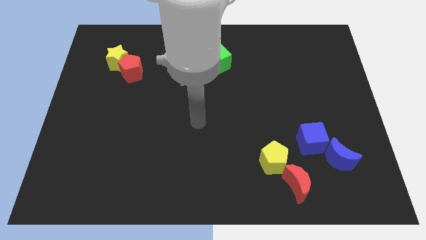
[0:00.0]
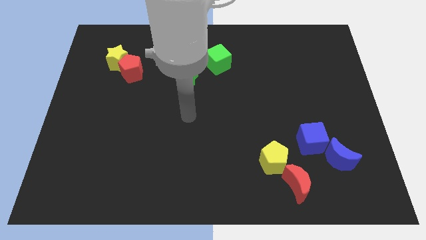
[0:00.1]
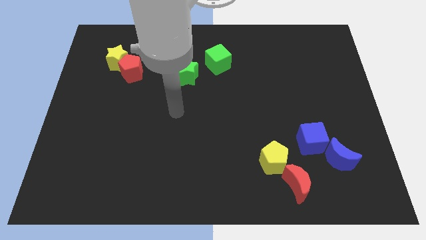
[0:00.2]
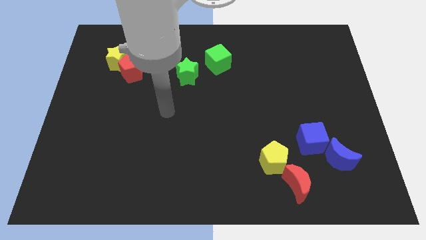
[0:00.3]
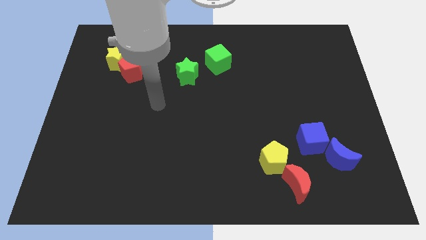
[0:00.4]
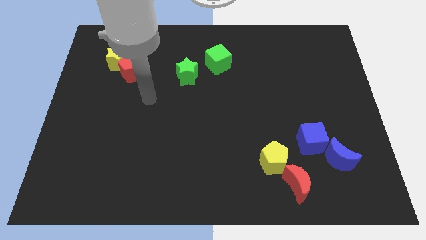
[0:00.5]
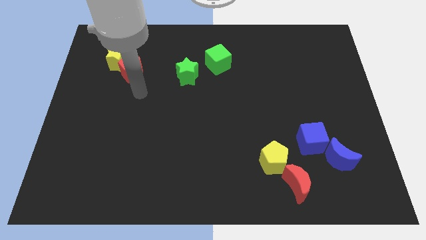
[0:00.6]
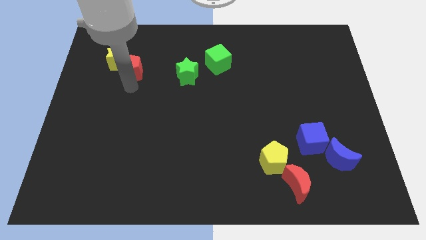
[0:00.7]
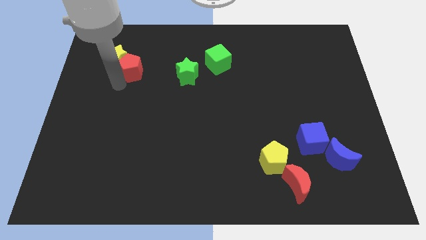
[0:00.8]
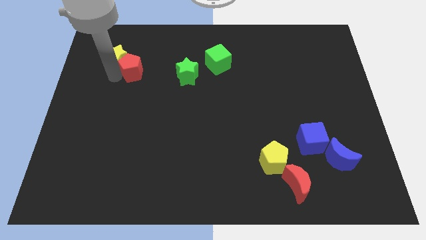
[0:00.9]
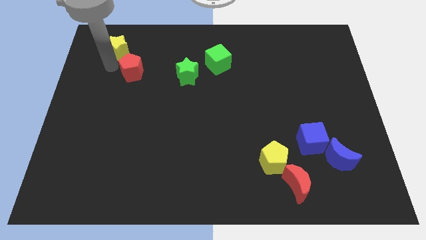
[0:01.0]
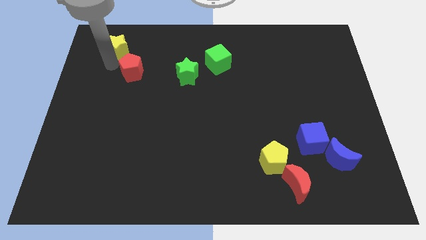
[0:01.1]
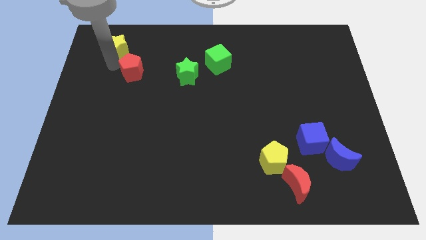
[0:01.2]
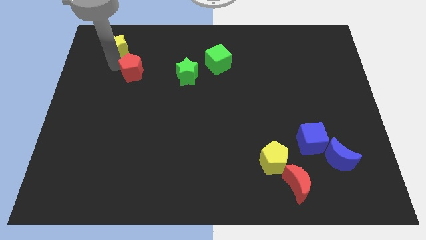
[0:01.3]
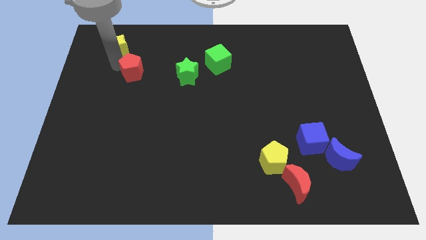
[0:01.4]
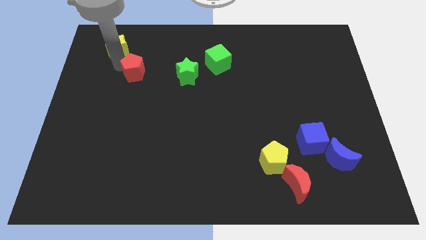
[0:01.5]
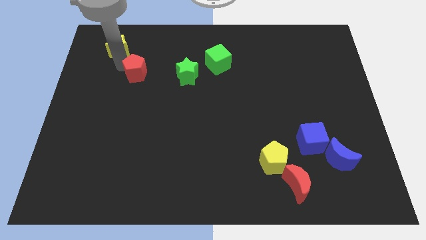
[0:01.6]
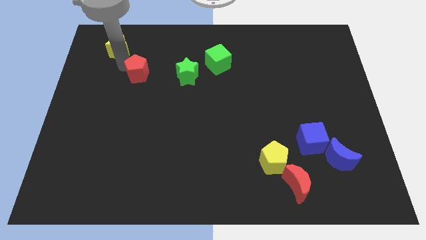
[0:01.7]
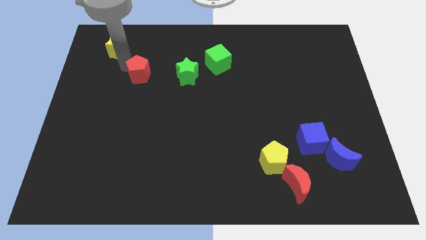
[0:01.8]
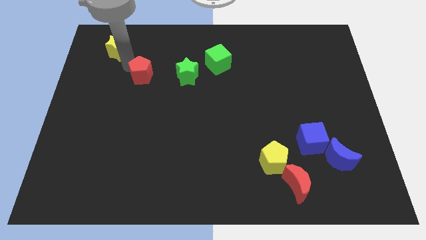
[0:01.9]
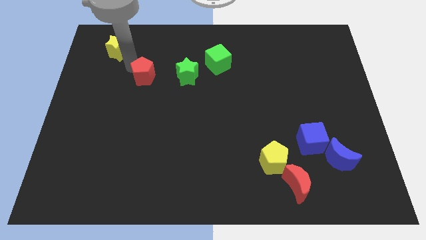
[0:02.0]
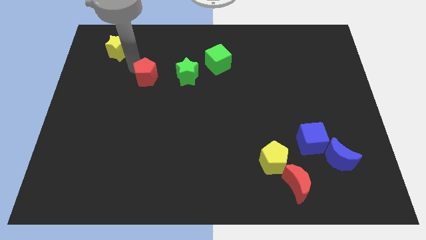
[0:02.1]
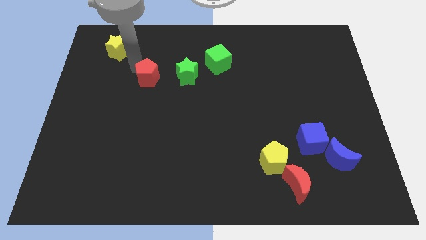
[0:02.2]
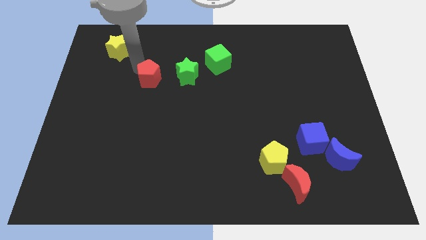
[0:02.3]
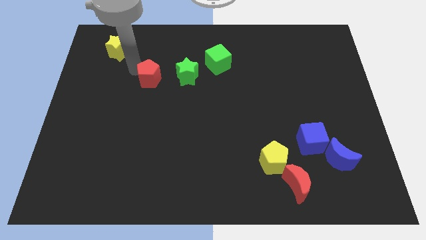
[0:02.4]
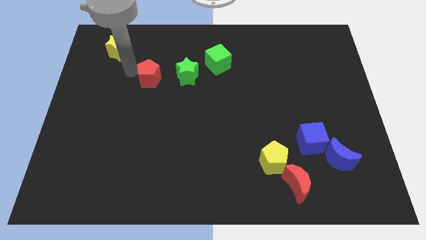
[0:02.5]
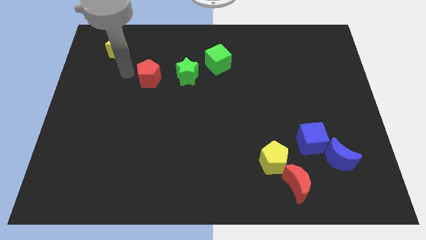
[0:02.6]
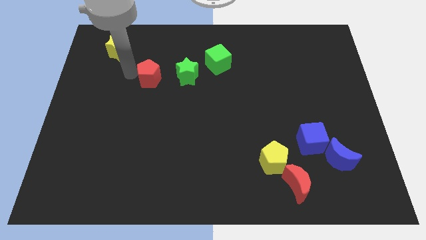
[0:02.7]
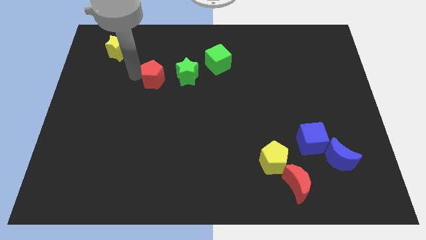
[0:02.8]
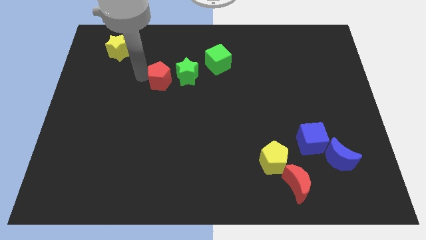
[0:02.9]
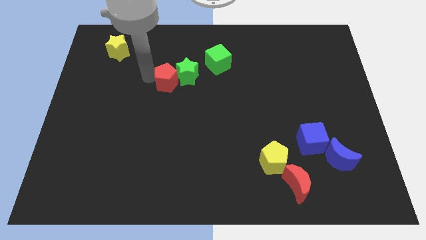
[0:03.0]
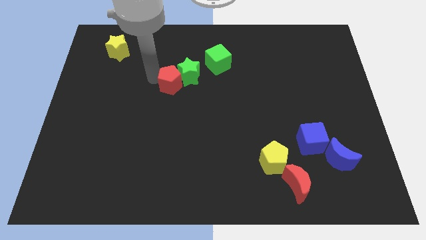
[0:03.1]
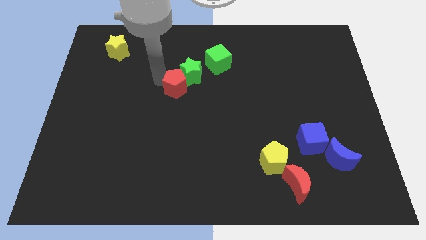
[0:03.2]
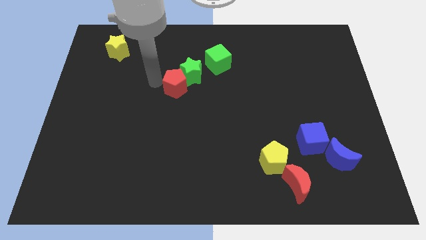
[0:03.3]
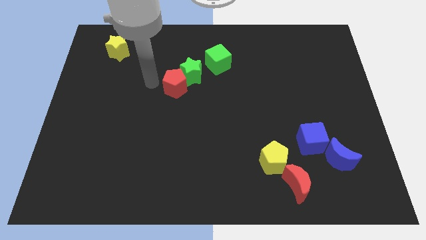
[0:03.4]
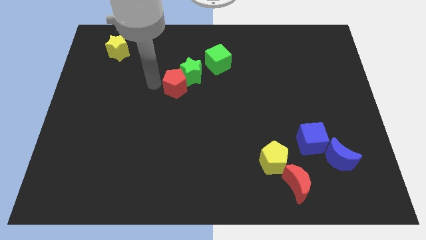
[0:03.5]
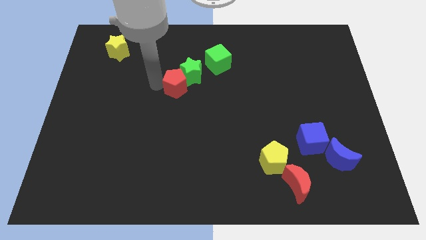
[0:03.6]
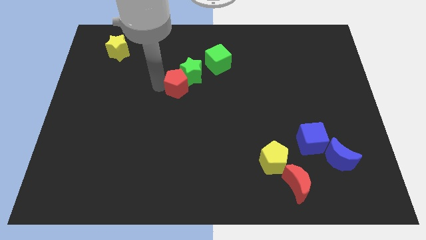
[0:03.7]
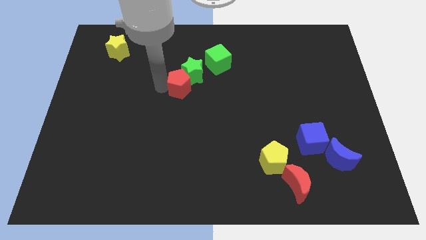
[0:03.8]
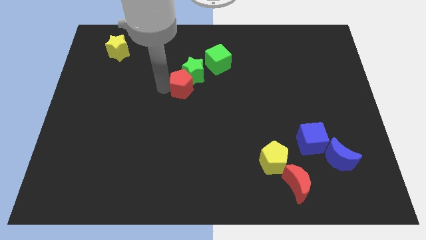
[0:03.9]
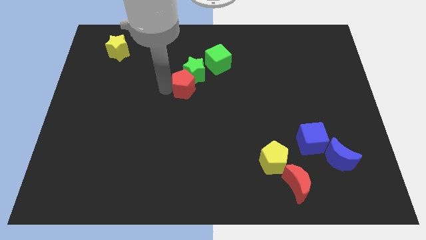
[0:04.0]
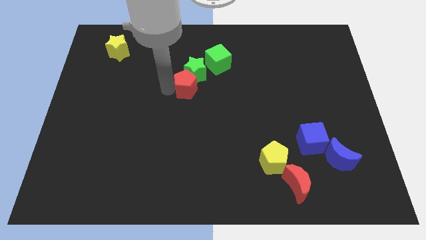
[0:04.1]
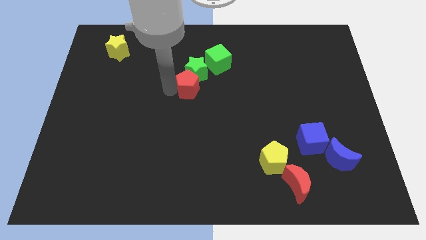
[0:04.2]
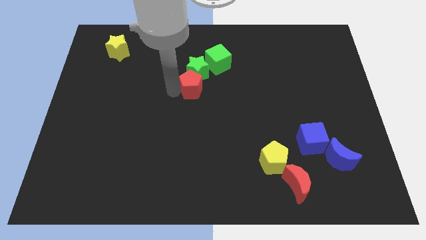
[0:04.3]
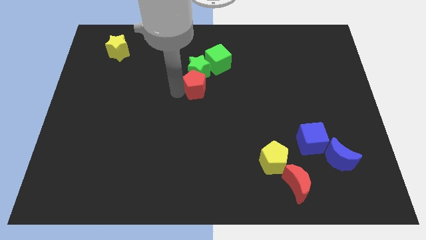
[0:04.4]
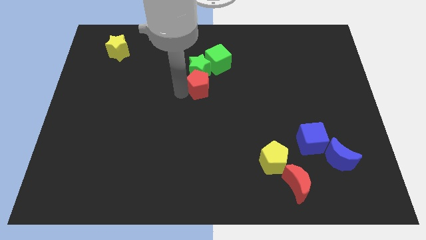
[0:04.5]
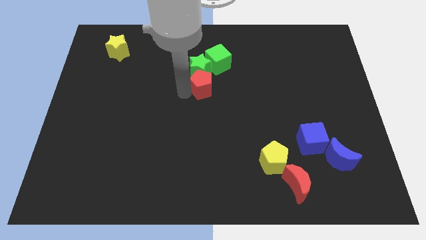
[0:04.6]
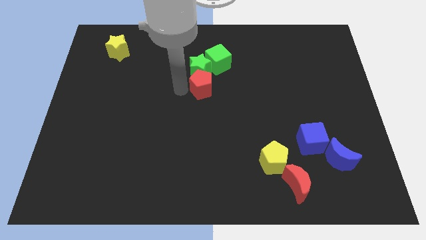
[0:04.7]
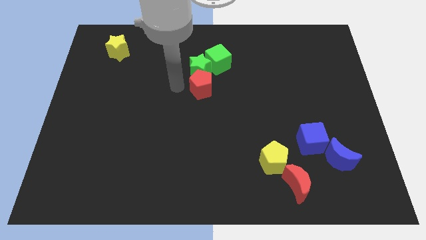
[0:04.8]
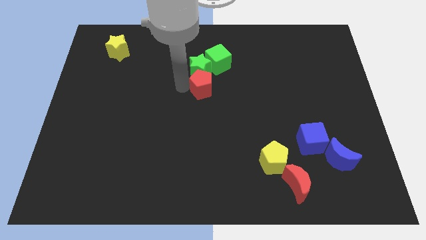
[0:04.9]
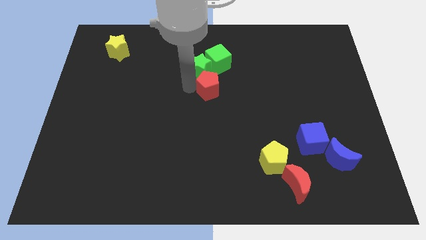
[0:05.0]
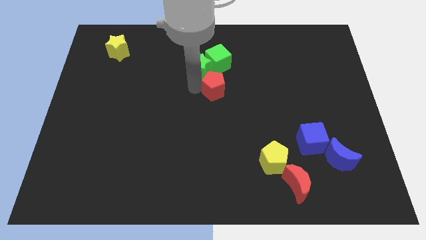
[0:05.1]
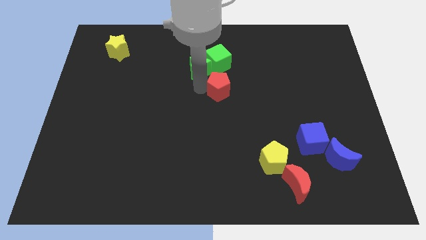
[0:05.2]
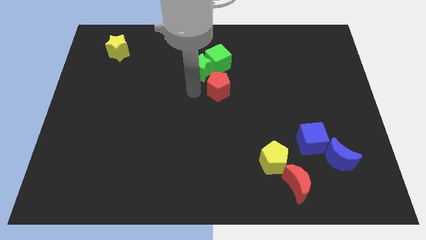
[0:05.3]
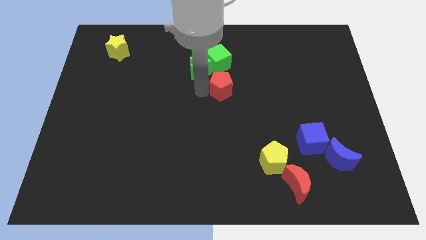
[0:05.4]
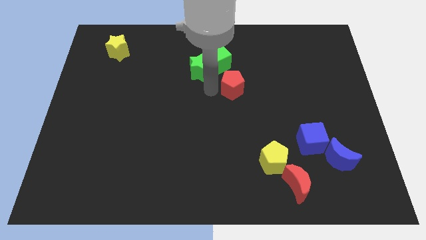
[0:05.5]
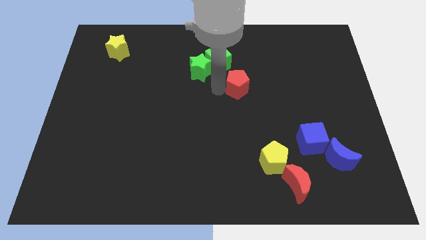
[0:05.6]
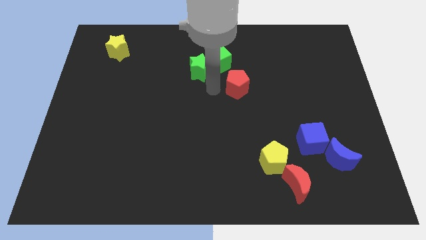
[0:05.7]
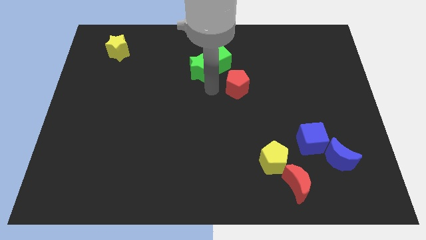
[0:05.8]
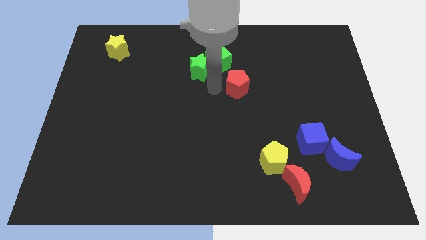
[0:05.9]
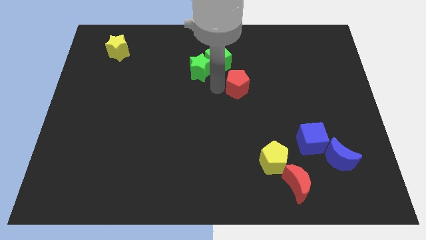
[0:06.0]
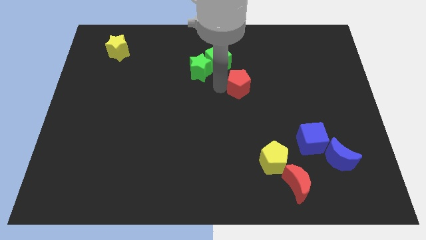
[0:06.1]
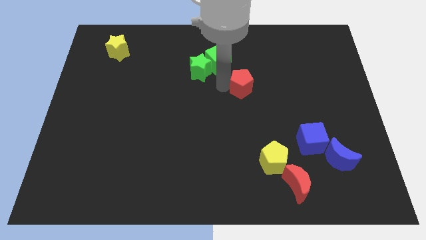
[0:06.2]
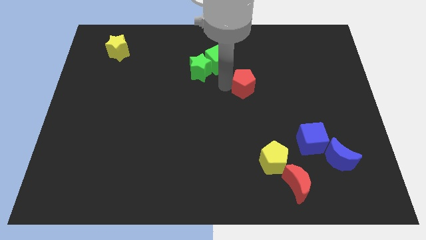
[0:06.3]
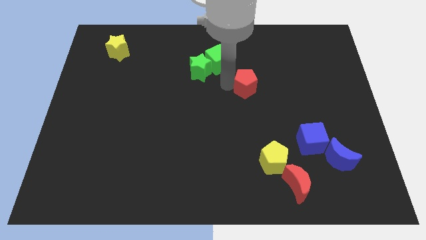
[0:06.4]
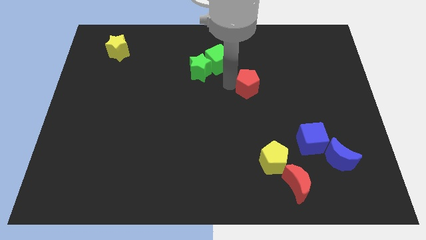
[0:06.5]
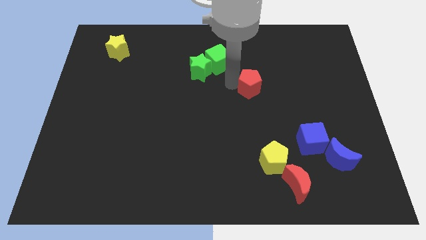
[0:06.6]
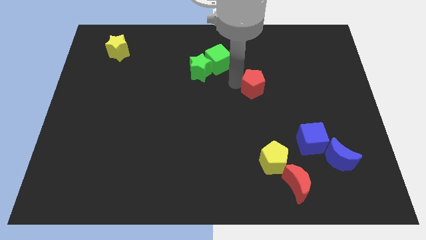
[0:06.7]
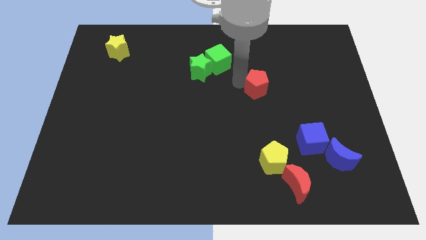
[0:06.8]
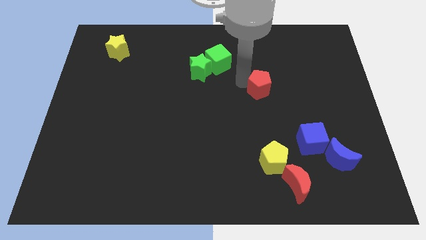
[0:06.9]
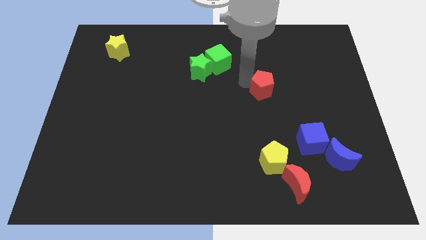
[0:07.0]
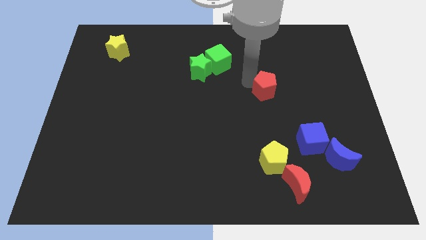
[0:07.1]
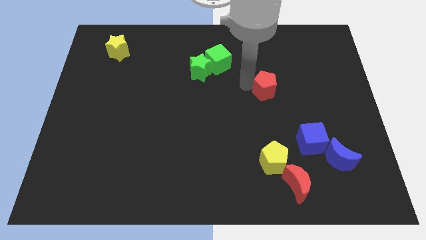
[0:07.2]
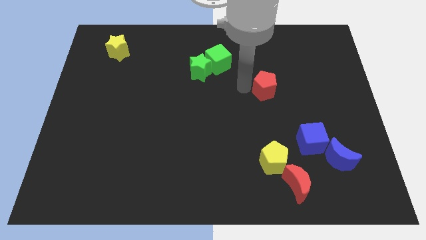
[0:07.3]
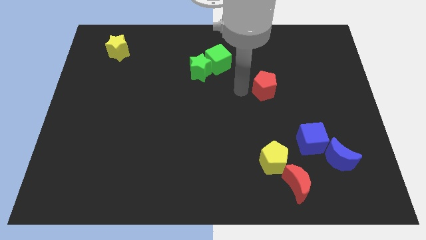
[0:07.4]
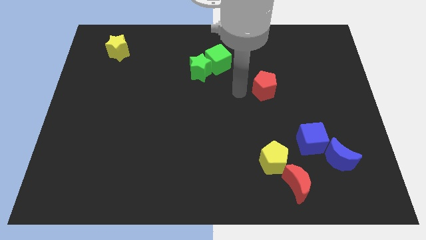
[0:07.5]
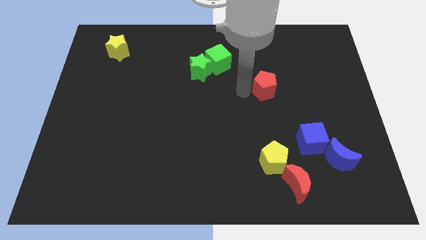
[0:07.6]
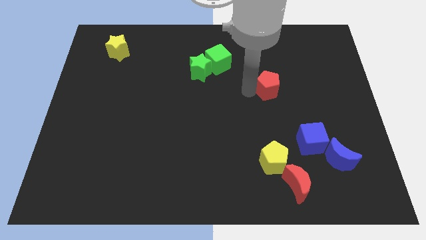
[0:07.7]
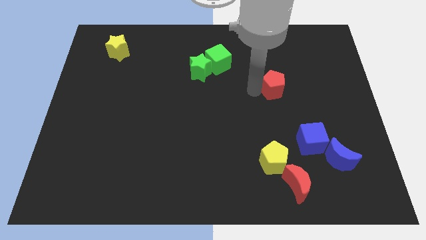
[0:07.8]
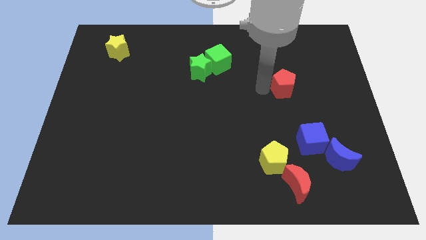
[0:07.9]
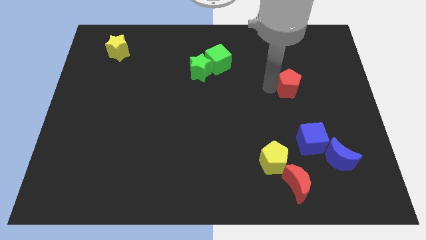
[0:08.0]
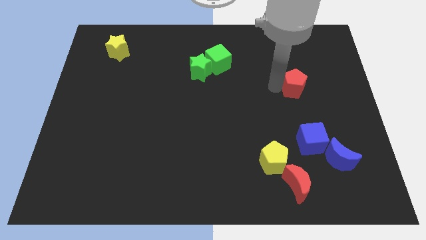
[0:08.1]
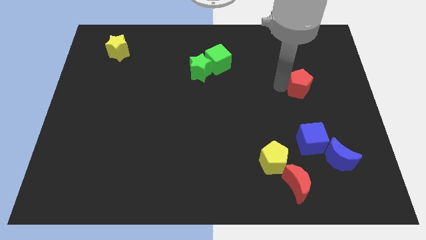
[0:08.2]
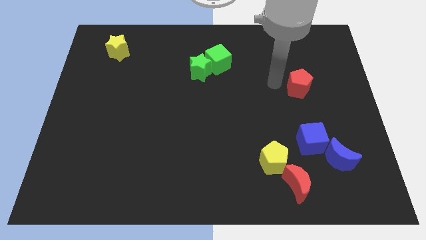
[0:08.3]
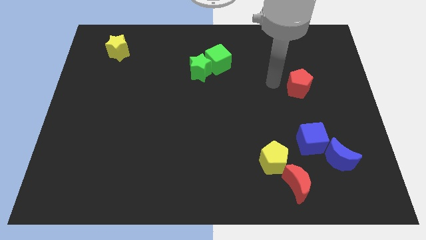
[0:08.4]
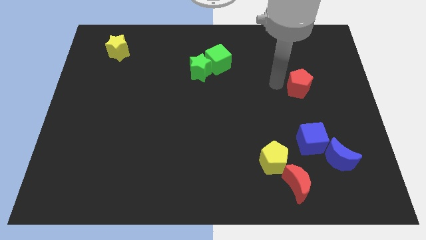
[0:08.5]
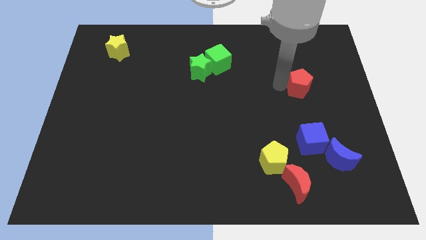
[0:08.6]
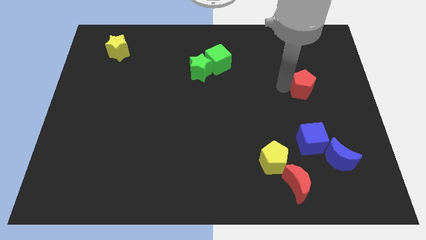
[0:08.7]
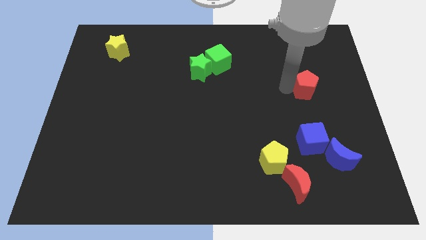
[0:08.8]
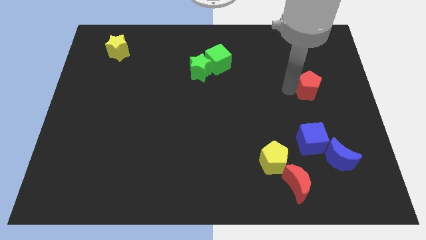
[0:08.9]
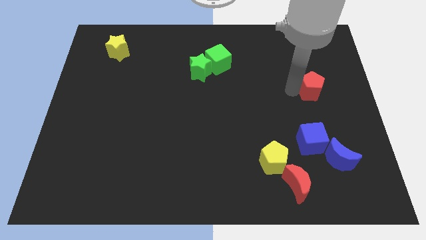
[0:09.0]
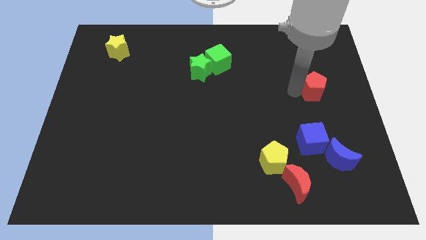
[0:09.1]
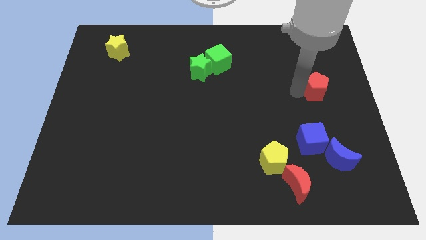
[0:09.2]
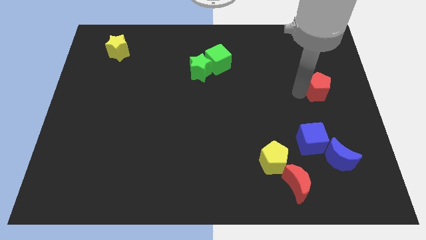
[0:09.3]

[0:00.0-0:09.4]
slide the red pentagon to the right side of the board
